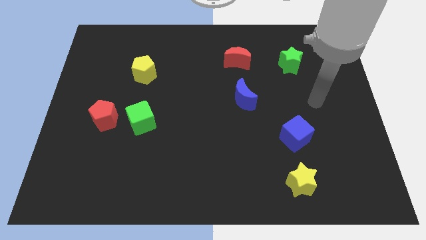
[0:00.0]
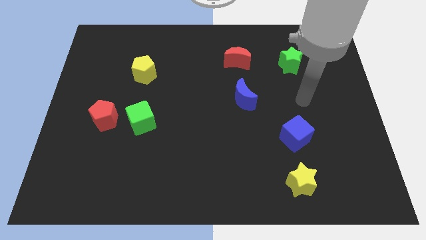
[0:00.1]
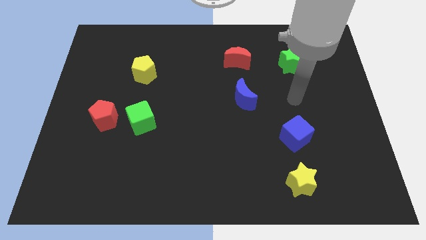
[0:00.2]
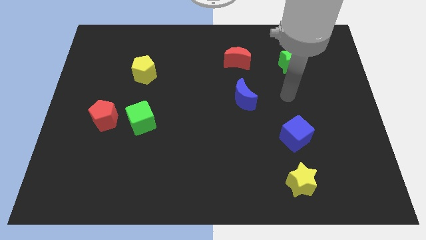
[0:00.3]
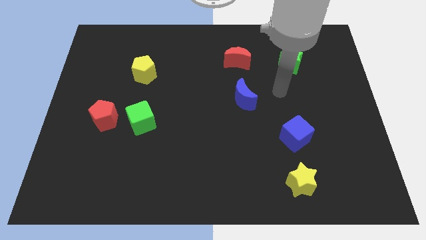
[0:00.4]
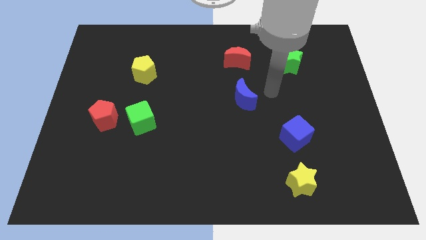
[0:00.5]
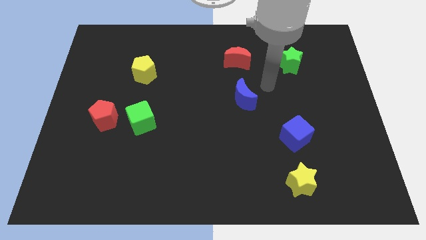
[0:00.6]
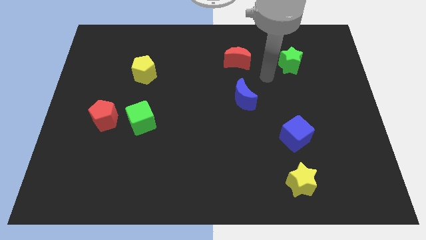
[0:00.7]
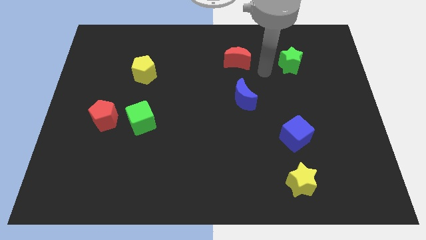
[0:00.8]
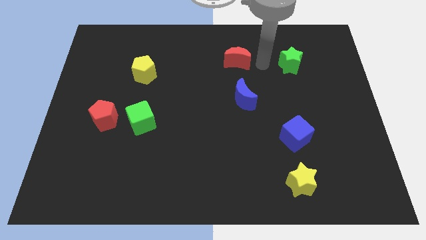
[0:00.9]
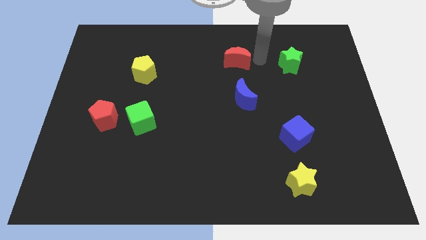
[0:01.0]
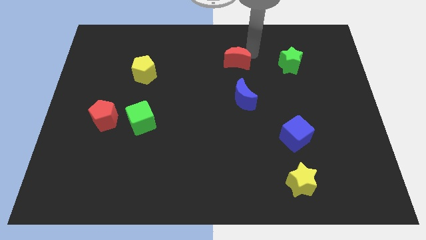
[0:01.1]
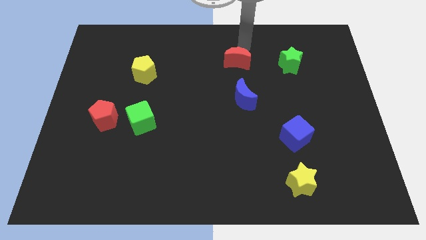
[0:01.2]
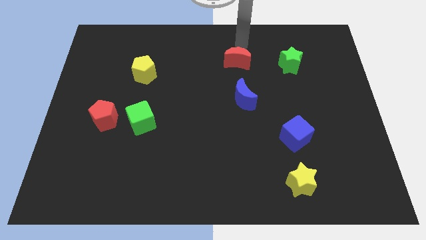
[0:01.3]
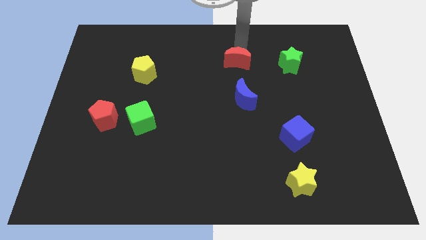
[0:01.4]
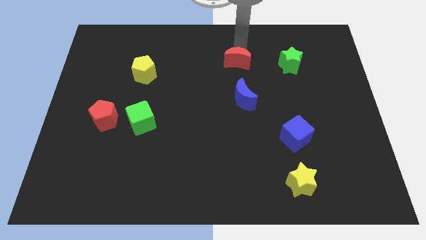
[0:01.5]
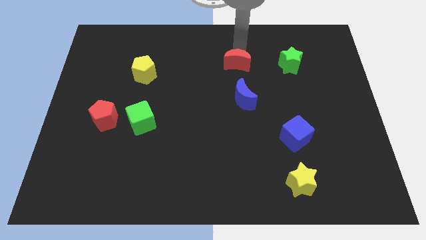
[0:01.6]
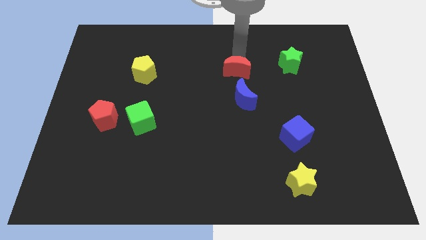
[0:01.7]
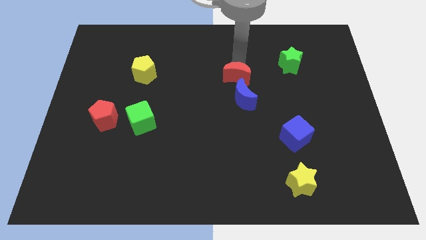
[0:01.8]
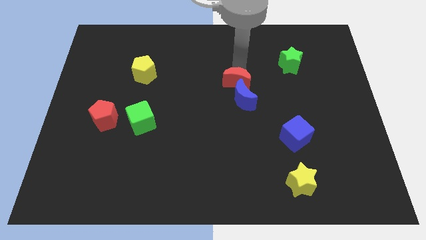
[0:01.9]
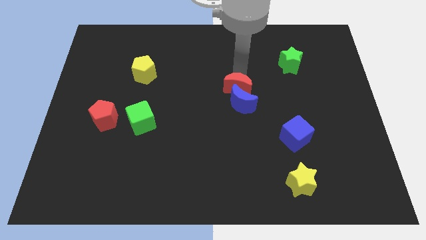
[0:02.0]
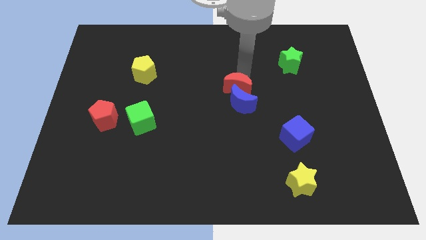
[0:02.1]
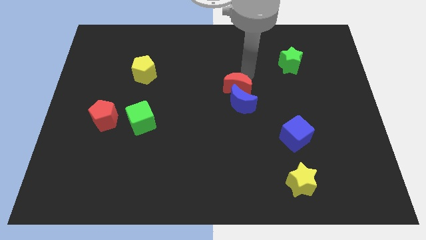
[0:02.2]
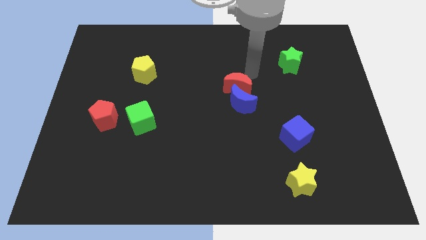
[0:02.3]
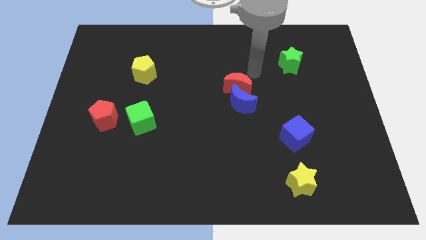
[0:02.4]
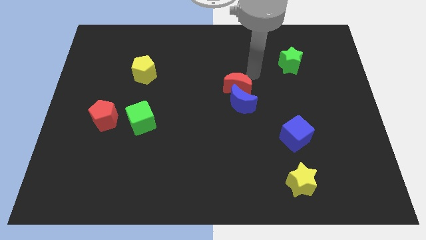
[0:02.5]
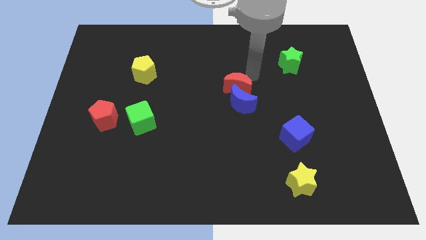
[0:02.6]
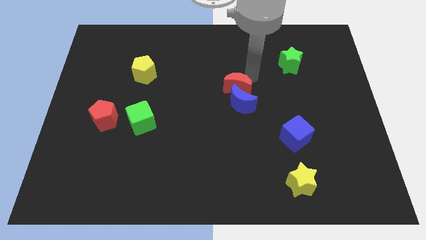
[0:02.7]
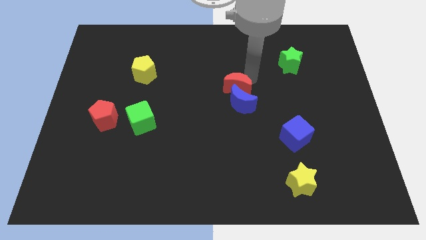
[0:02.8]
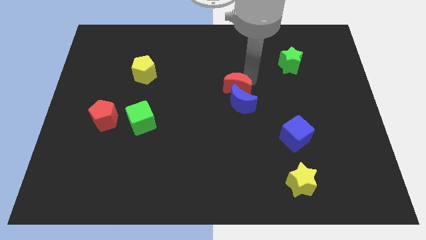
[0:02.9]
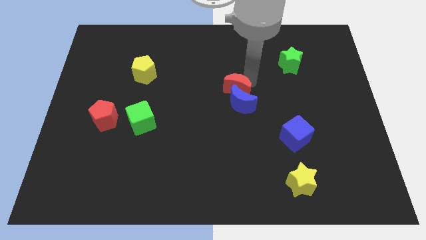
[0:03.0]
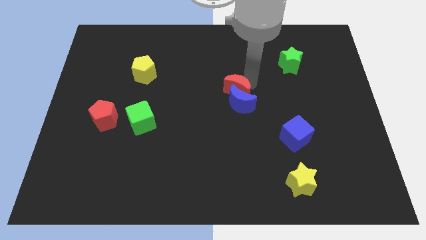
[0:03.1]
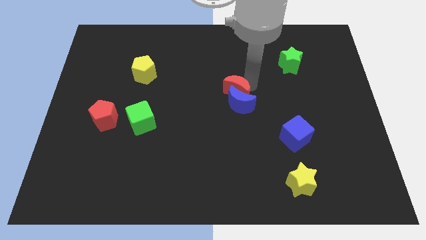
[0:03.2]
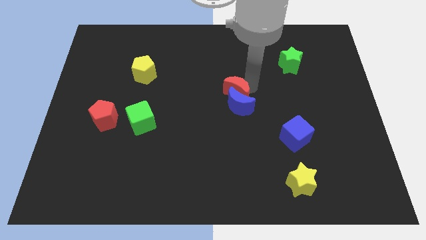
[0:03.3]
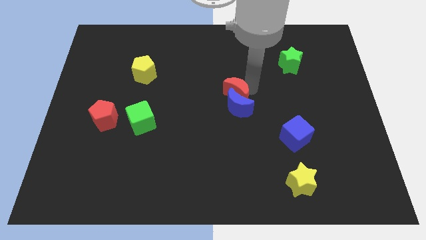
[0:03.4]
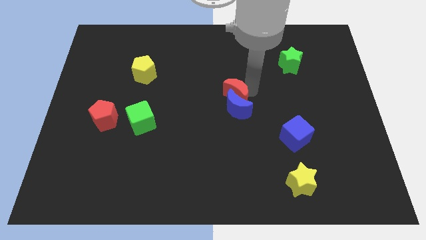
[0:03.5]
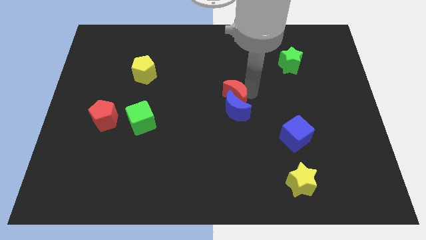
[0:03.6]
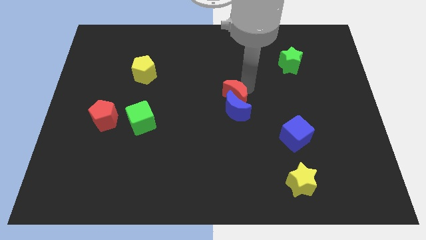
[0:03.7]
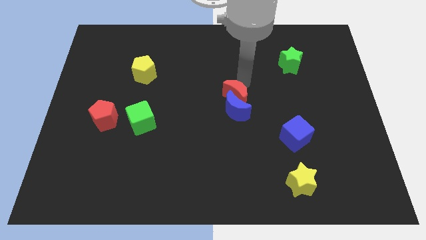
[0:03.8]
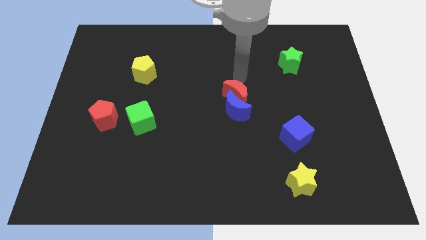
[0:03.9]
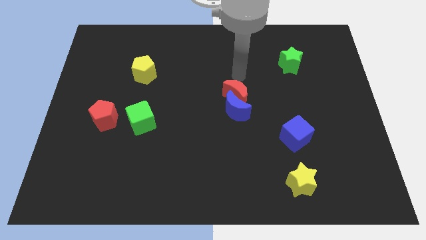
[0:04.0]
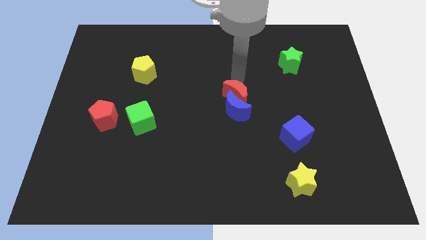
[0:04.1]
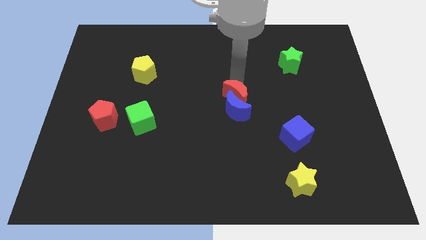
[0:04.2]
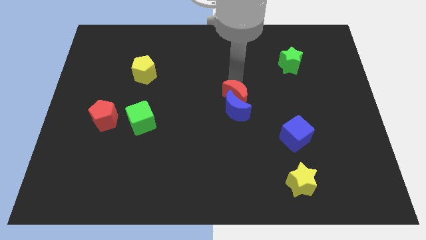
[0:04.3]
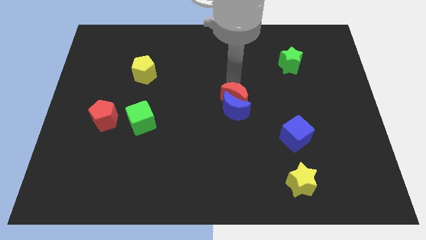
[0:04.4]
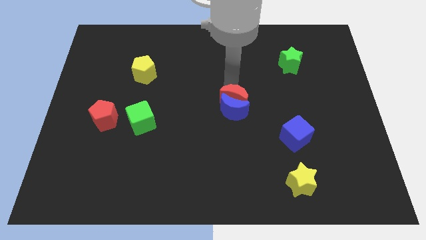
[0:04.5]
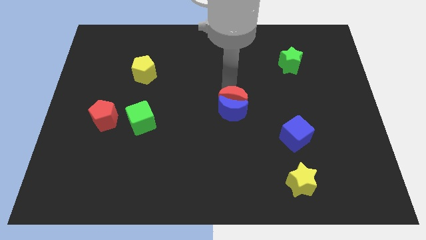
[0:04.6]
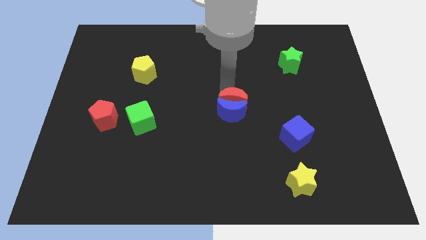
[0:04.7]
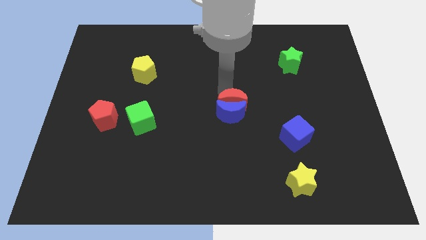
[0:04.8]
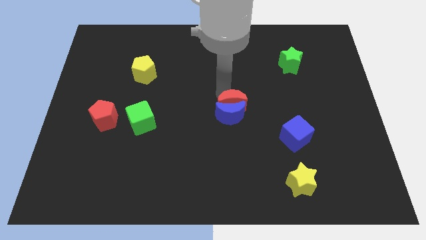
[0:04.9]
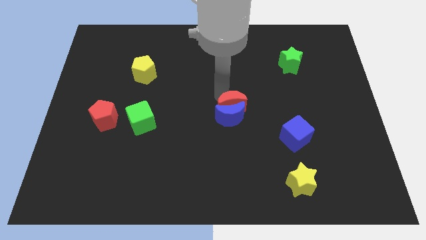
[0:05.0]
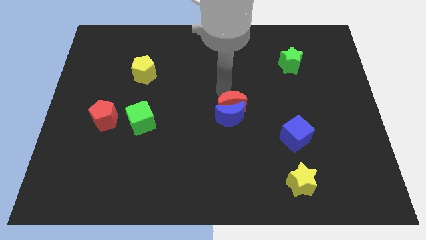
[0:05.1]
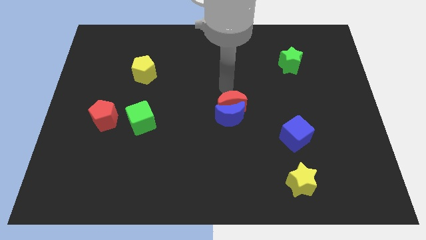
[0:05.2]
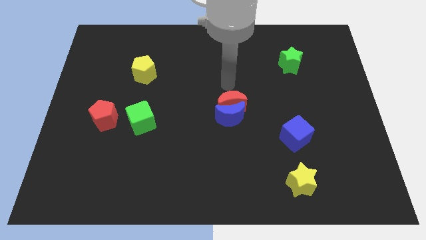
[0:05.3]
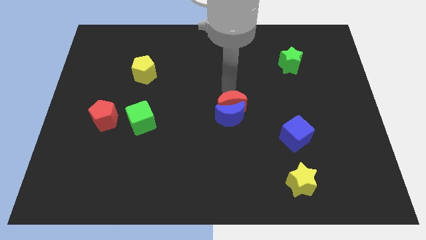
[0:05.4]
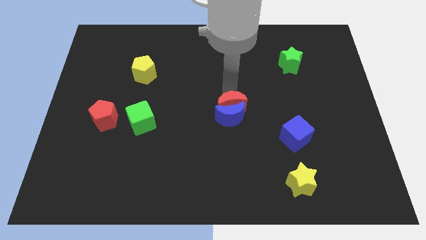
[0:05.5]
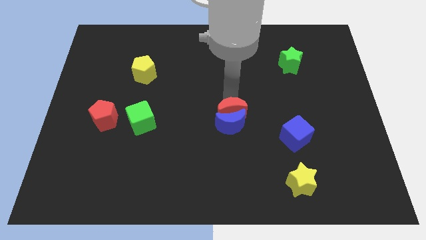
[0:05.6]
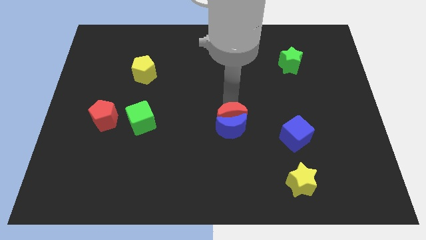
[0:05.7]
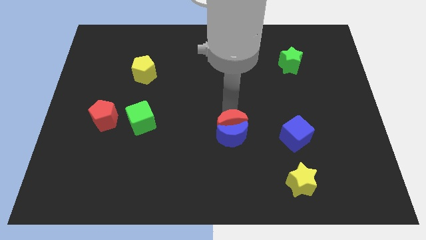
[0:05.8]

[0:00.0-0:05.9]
push the red moon down

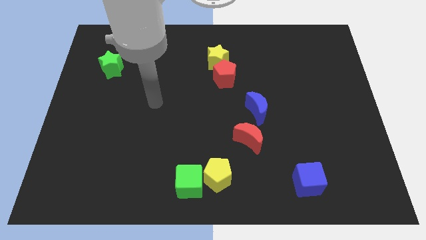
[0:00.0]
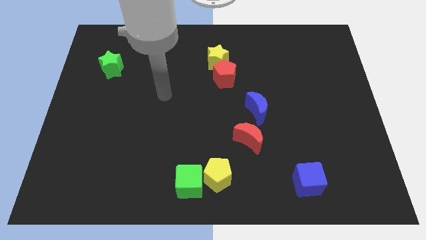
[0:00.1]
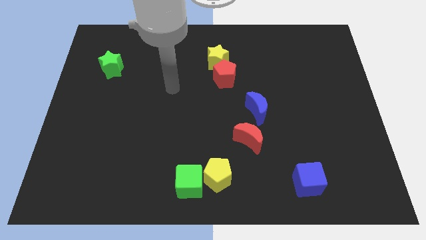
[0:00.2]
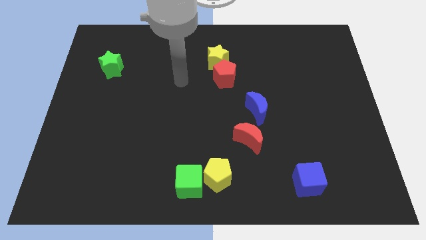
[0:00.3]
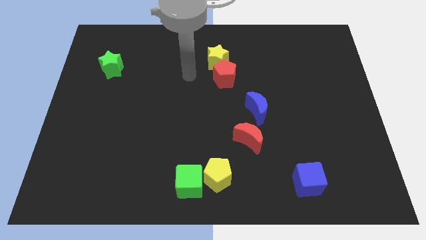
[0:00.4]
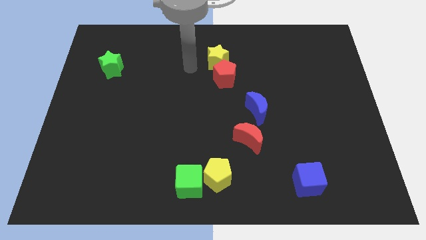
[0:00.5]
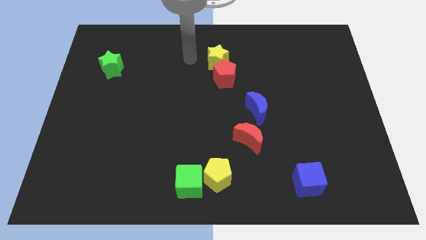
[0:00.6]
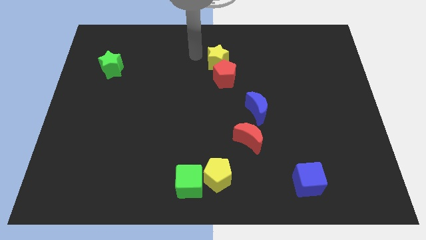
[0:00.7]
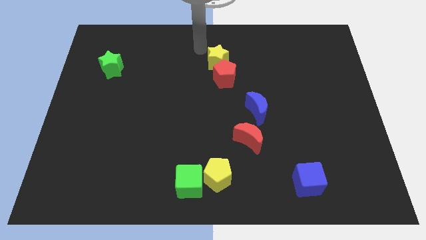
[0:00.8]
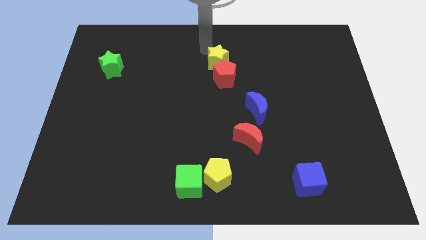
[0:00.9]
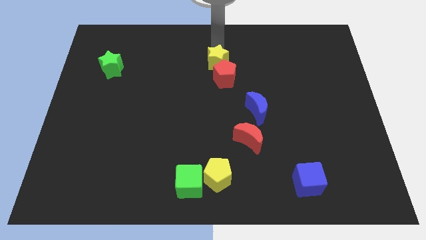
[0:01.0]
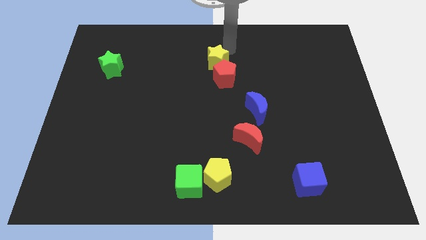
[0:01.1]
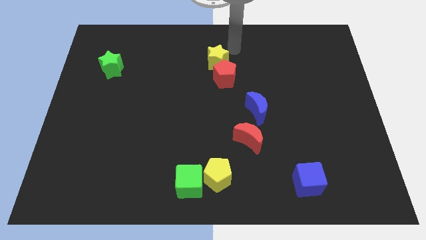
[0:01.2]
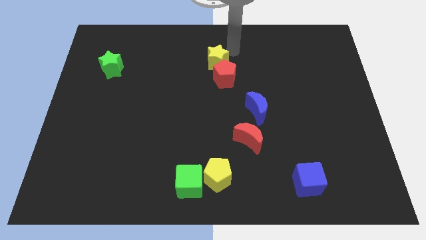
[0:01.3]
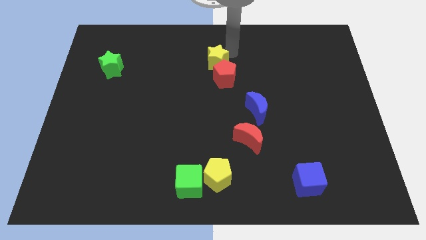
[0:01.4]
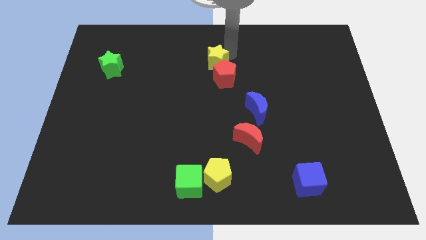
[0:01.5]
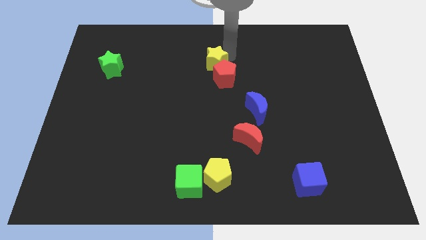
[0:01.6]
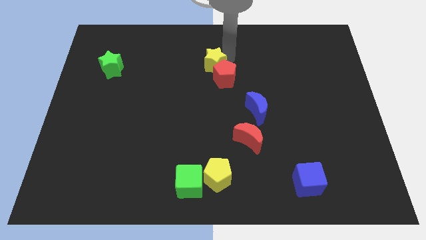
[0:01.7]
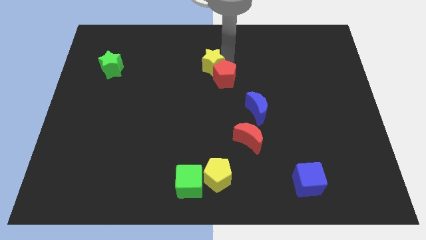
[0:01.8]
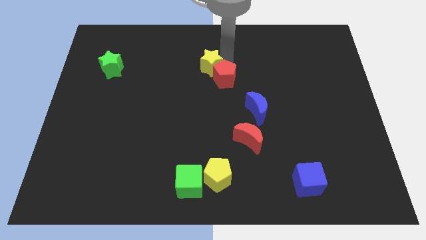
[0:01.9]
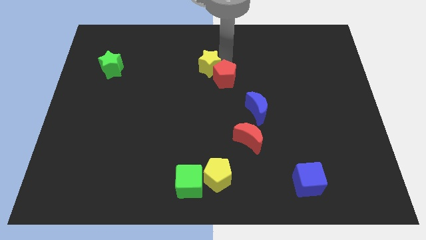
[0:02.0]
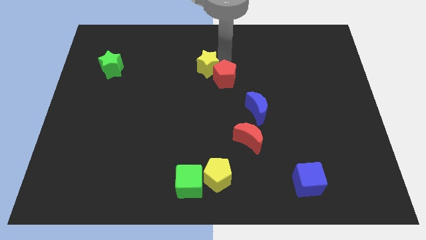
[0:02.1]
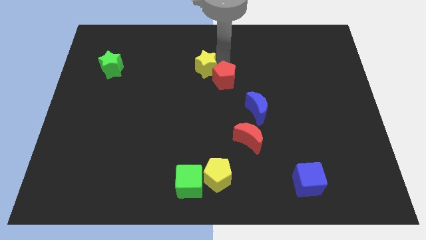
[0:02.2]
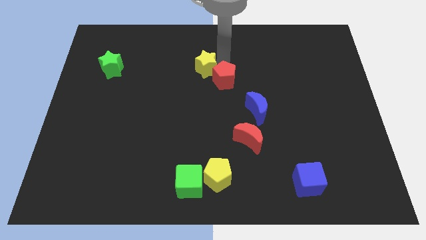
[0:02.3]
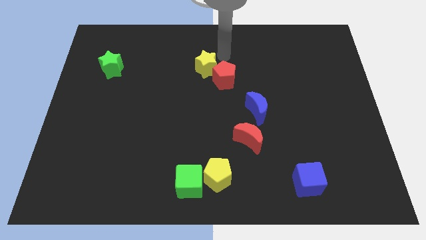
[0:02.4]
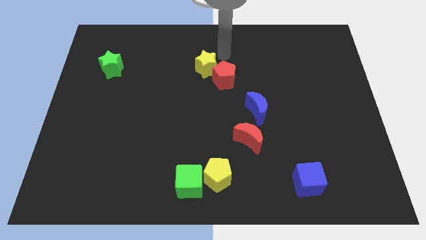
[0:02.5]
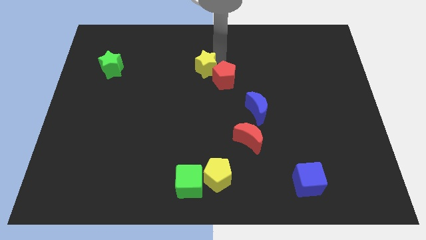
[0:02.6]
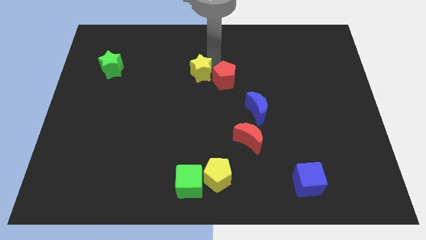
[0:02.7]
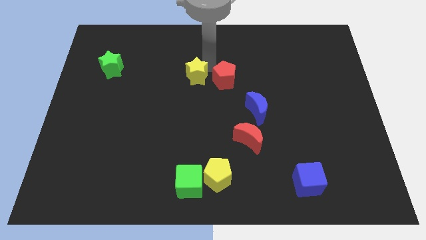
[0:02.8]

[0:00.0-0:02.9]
slide the yellow star somewhat diagonally downwards and to the left
